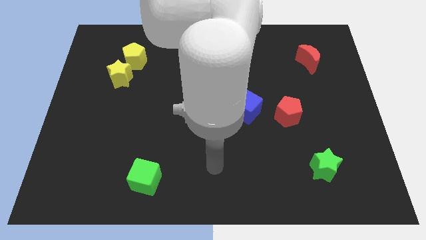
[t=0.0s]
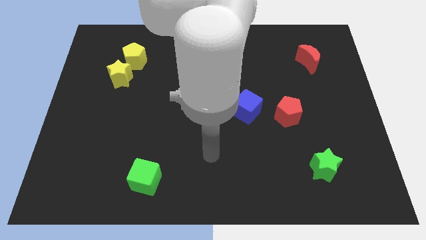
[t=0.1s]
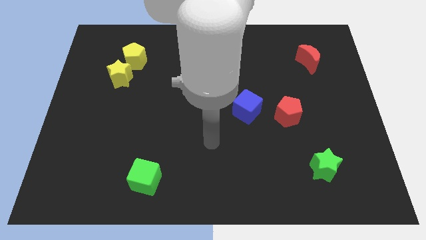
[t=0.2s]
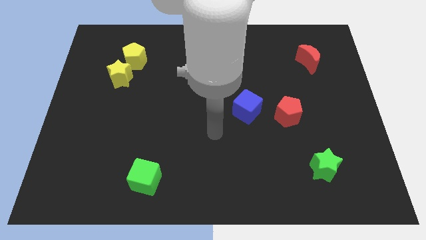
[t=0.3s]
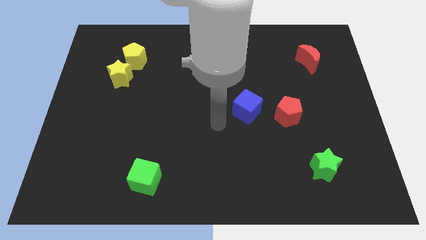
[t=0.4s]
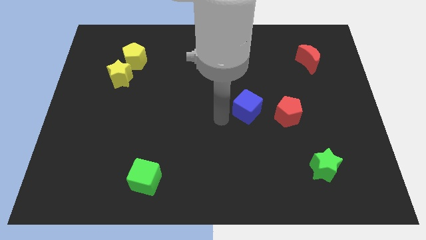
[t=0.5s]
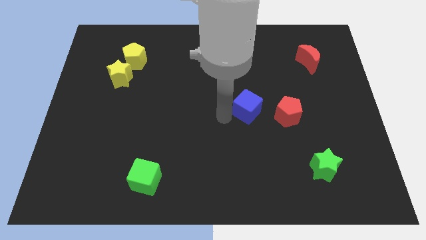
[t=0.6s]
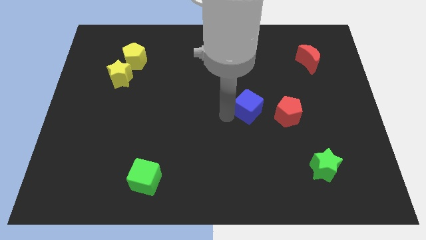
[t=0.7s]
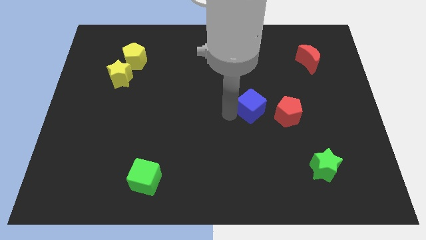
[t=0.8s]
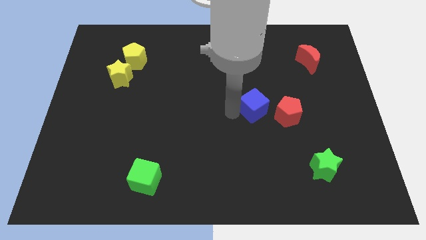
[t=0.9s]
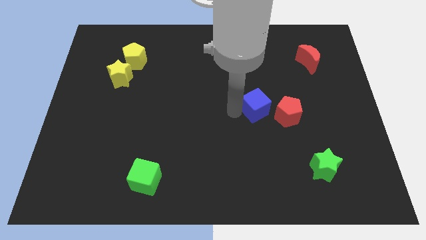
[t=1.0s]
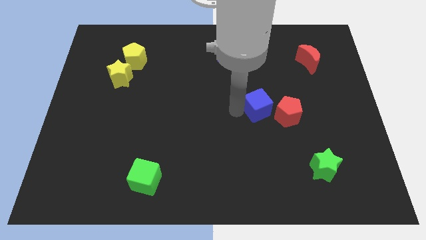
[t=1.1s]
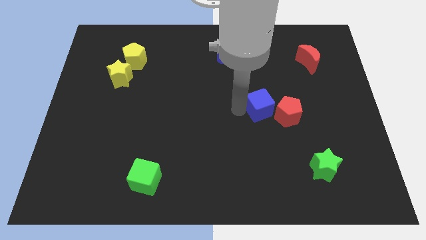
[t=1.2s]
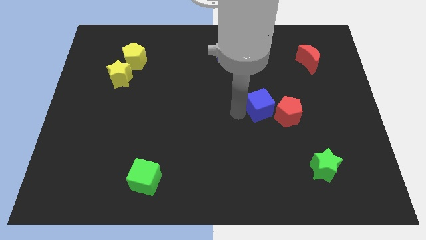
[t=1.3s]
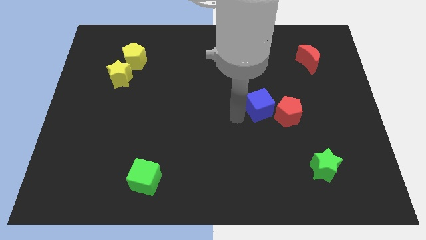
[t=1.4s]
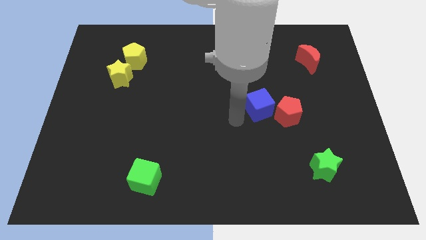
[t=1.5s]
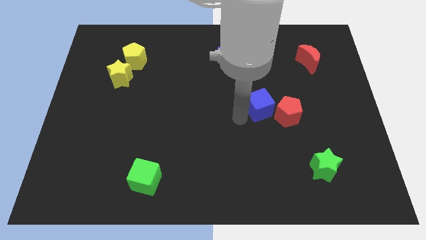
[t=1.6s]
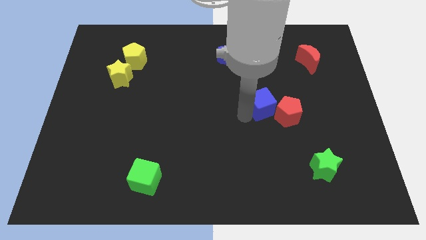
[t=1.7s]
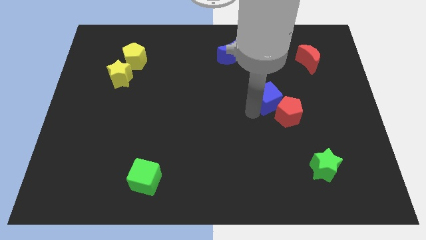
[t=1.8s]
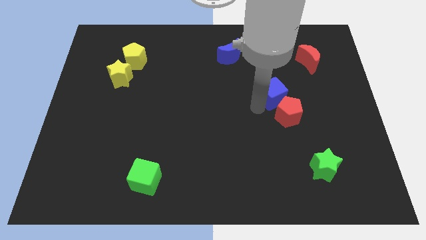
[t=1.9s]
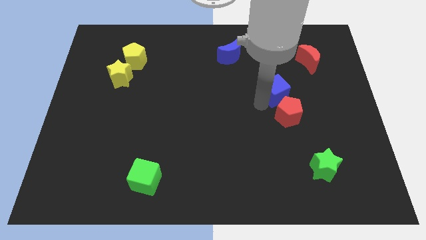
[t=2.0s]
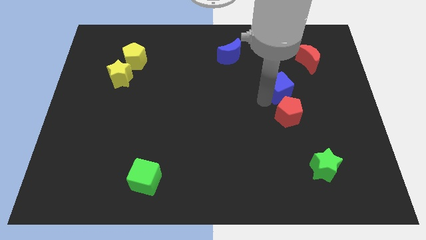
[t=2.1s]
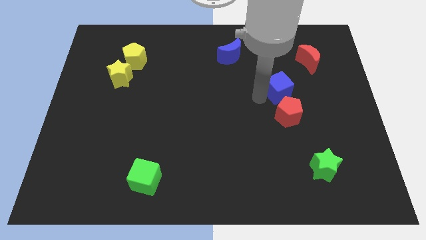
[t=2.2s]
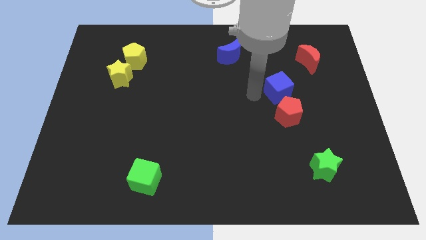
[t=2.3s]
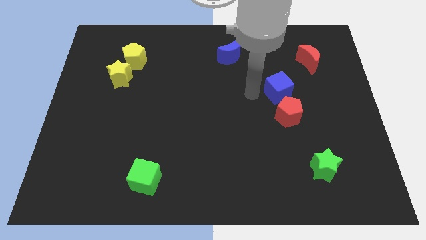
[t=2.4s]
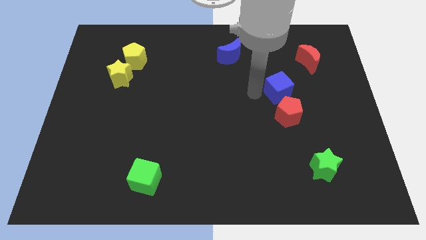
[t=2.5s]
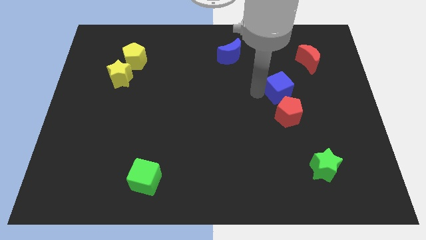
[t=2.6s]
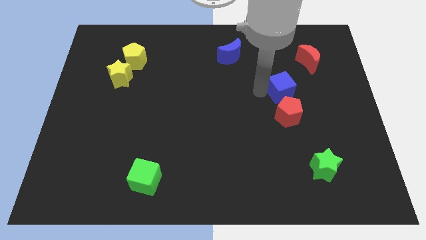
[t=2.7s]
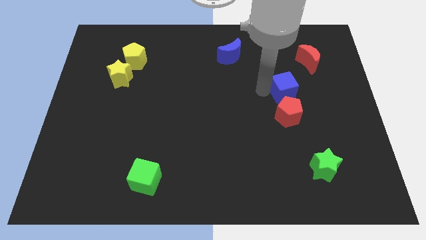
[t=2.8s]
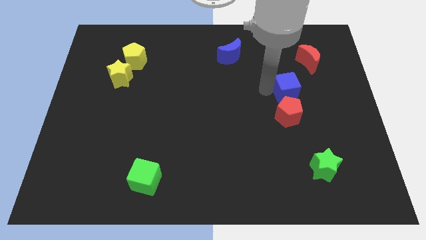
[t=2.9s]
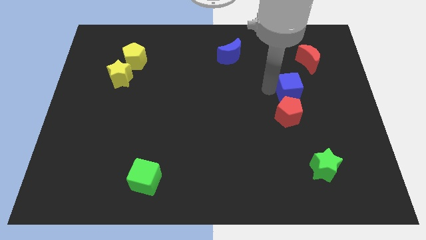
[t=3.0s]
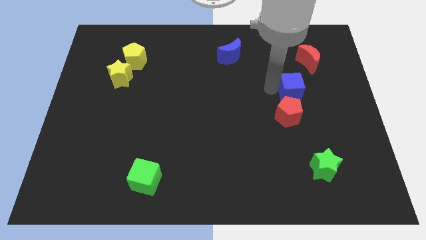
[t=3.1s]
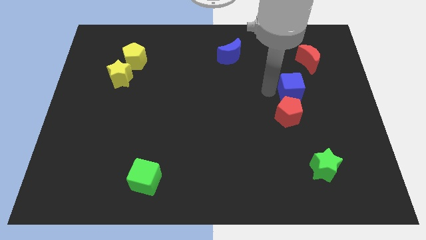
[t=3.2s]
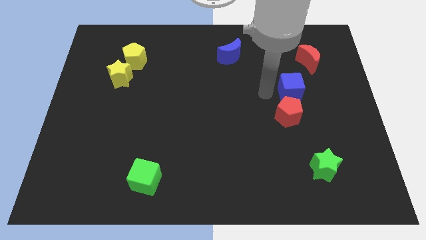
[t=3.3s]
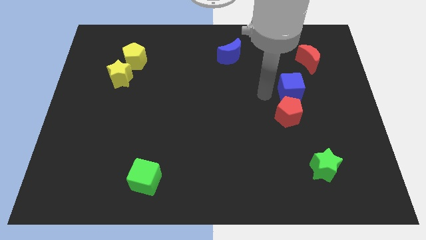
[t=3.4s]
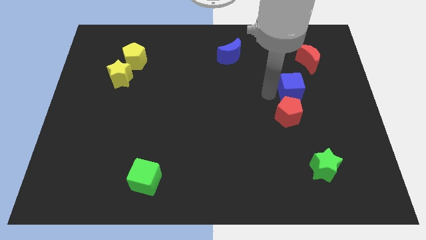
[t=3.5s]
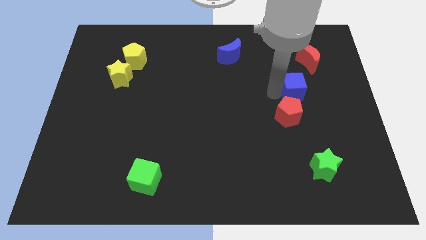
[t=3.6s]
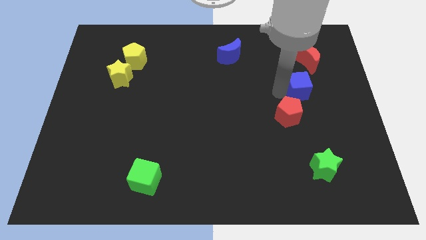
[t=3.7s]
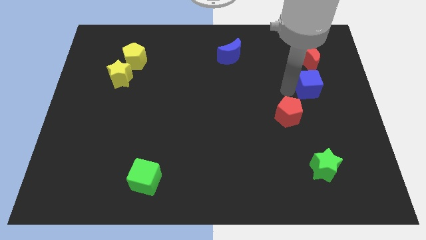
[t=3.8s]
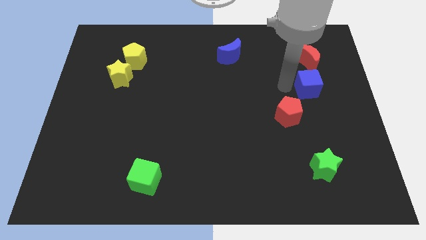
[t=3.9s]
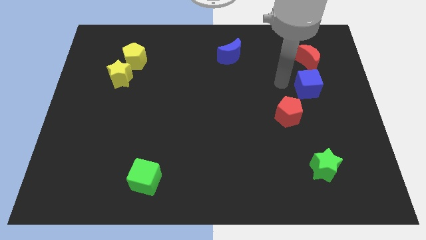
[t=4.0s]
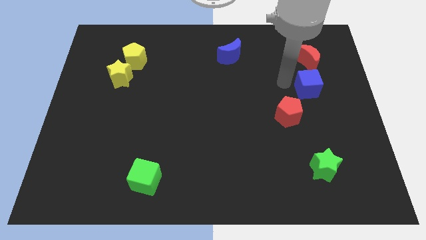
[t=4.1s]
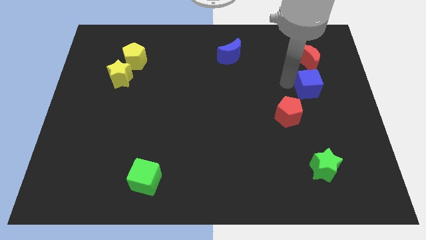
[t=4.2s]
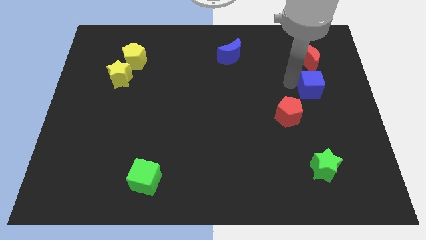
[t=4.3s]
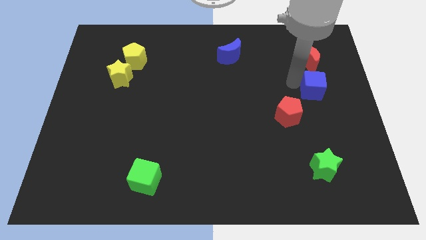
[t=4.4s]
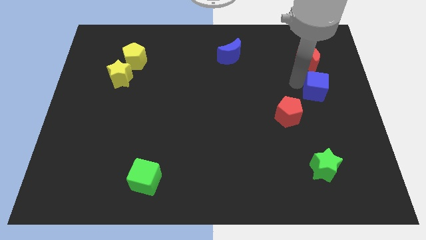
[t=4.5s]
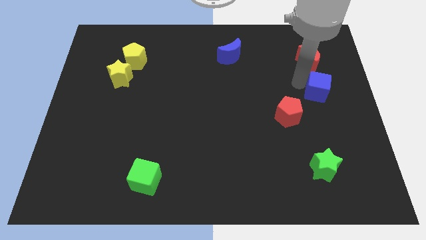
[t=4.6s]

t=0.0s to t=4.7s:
slide the blue cube to the center right

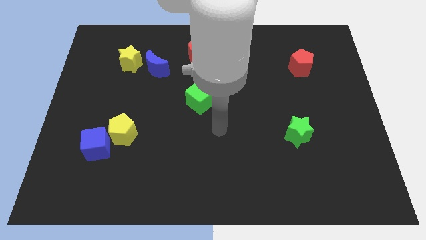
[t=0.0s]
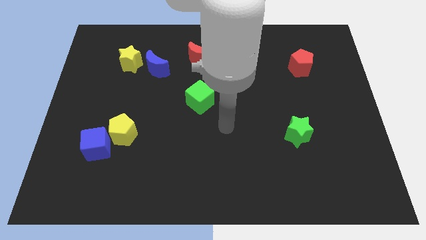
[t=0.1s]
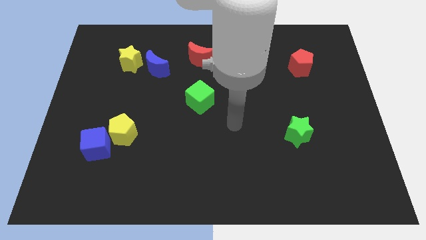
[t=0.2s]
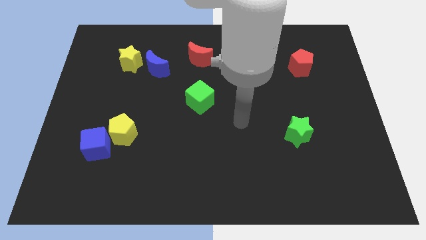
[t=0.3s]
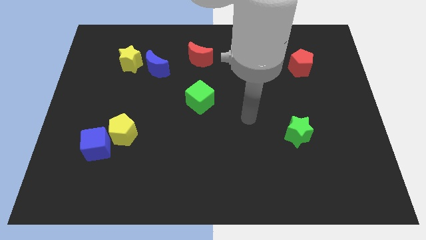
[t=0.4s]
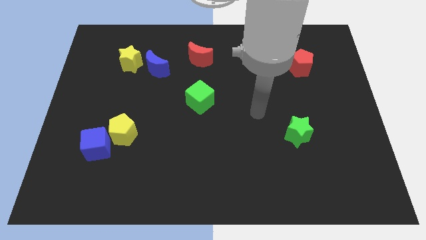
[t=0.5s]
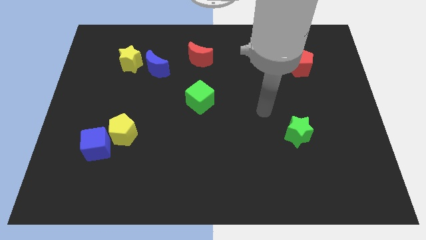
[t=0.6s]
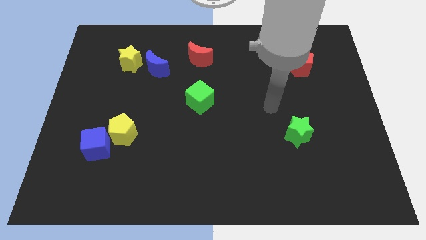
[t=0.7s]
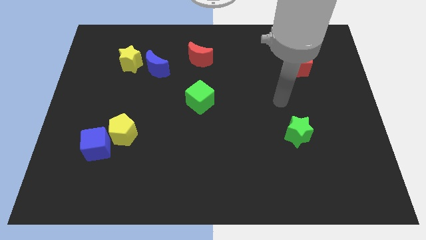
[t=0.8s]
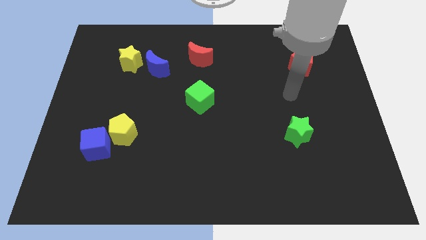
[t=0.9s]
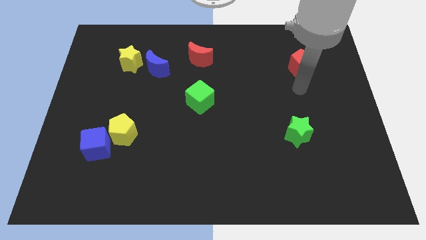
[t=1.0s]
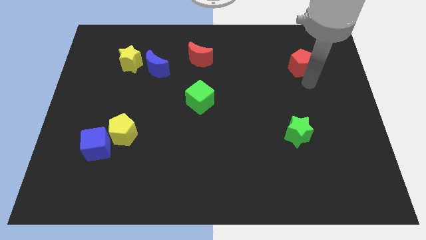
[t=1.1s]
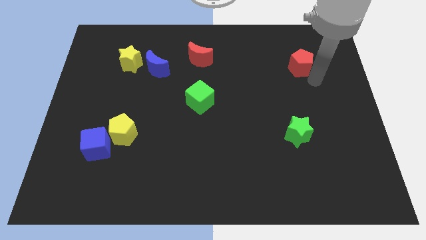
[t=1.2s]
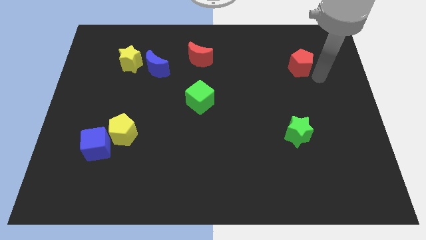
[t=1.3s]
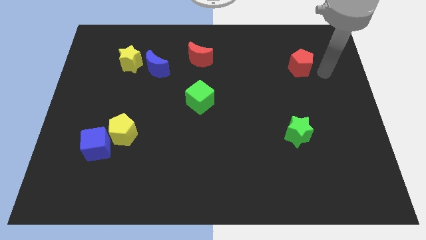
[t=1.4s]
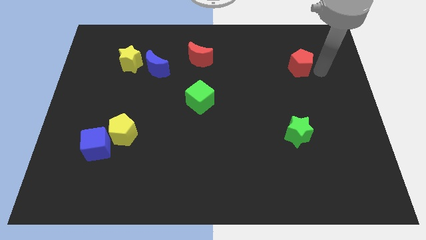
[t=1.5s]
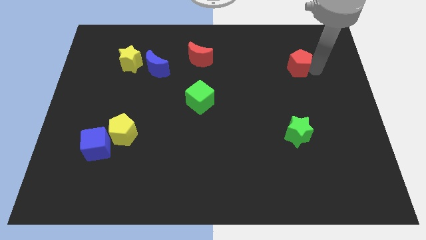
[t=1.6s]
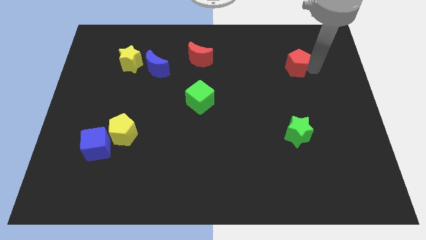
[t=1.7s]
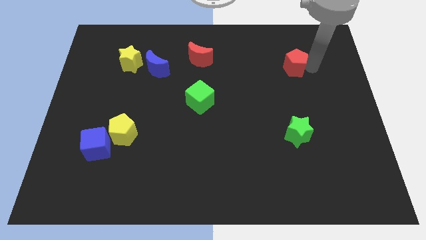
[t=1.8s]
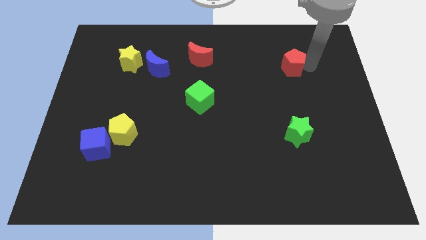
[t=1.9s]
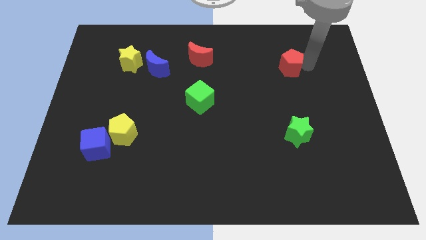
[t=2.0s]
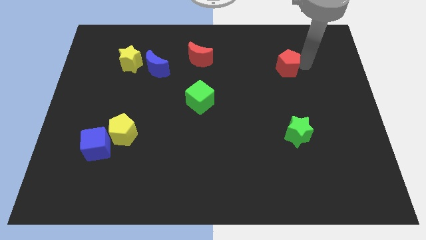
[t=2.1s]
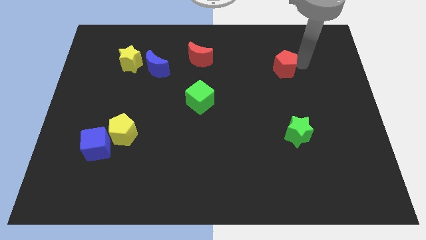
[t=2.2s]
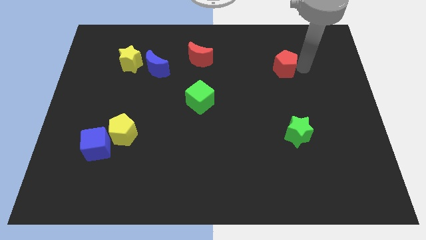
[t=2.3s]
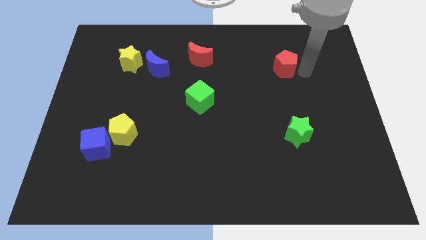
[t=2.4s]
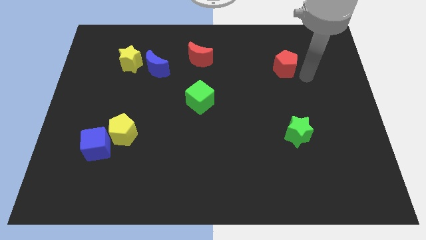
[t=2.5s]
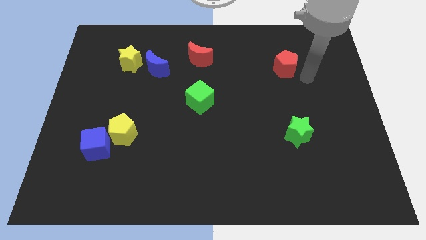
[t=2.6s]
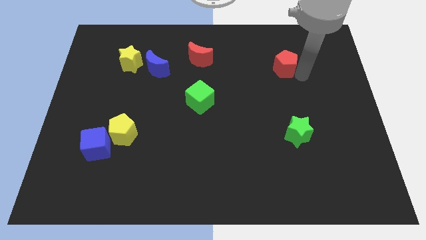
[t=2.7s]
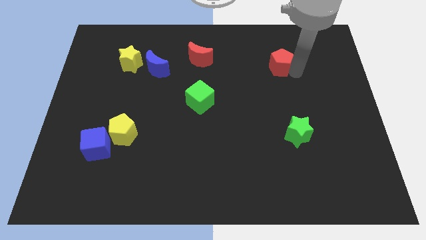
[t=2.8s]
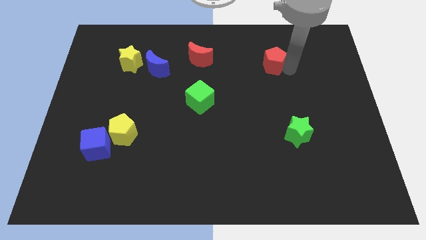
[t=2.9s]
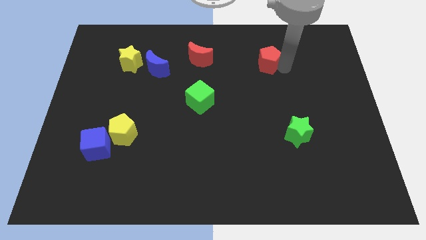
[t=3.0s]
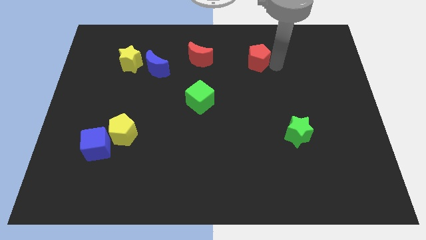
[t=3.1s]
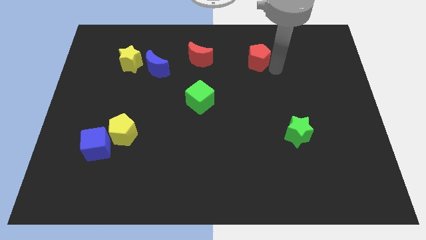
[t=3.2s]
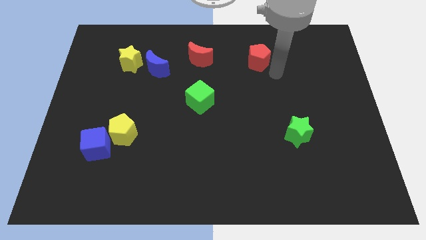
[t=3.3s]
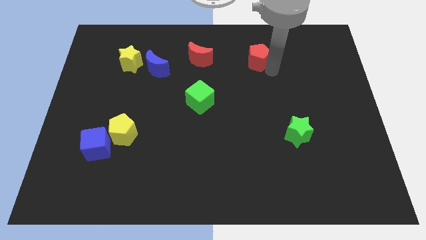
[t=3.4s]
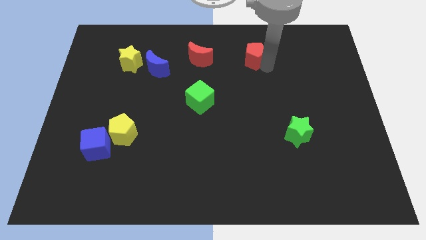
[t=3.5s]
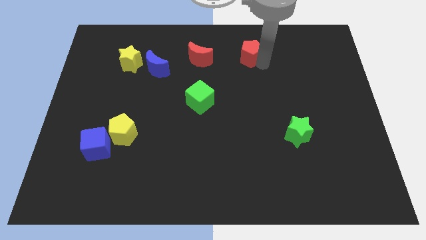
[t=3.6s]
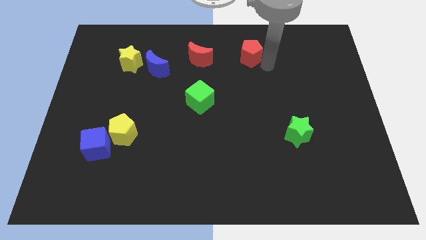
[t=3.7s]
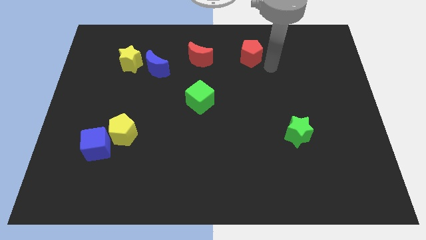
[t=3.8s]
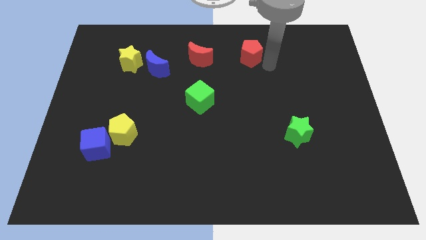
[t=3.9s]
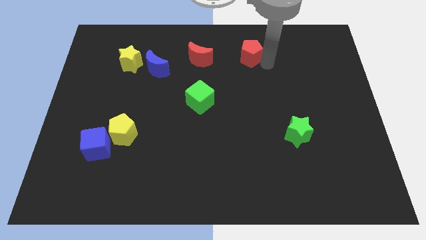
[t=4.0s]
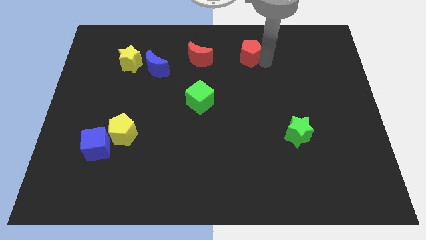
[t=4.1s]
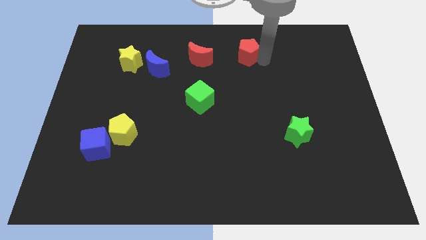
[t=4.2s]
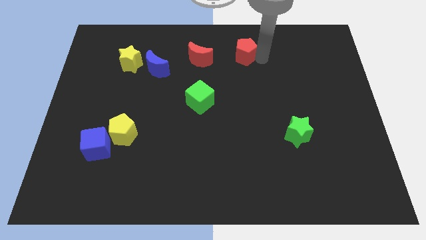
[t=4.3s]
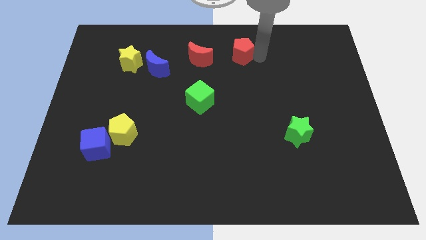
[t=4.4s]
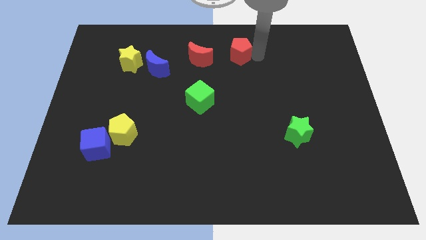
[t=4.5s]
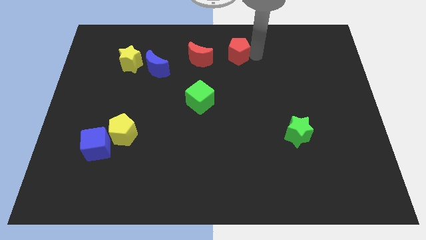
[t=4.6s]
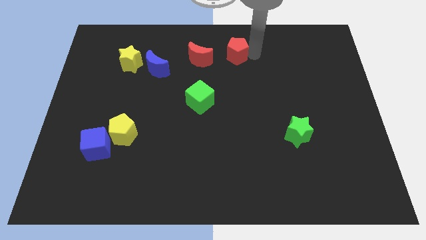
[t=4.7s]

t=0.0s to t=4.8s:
slide the red pentagon to the top
